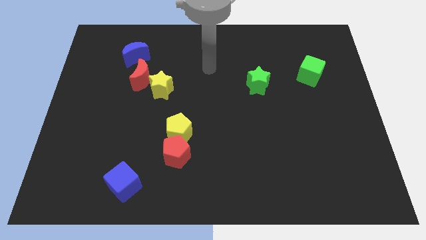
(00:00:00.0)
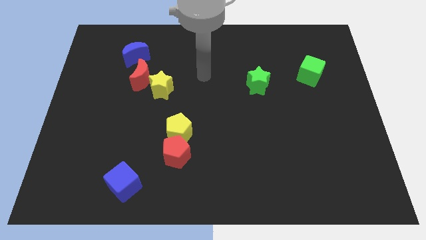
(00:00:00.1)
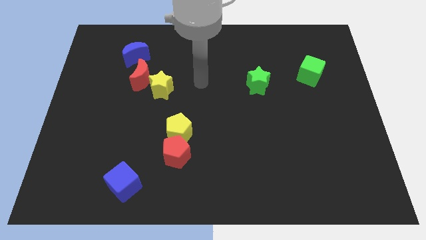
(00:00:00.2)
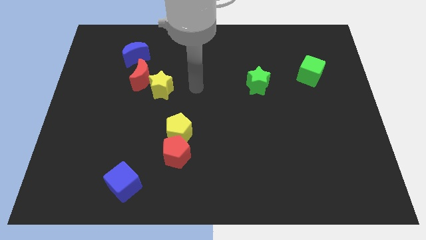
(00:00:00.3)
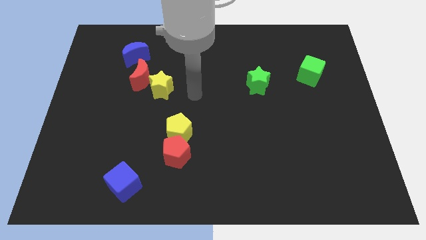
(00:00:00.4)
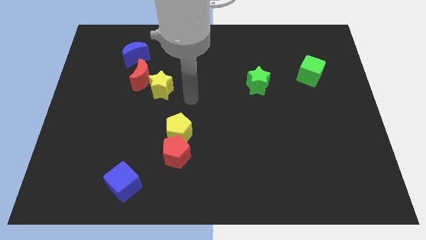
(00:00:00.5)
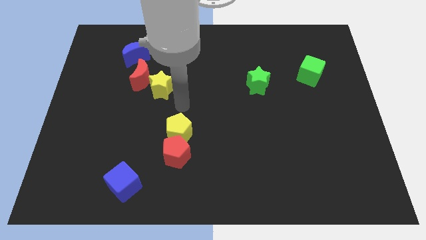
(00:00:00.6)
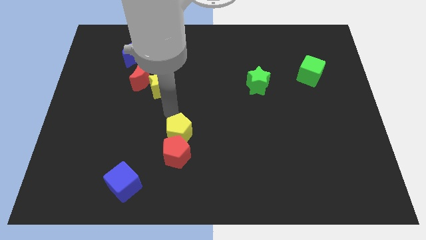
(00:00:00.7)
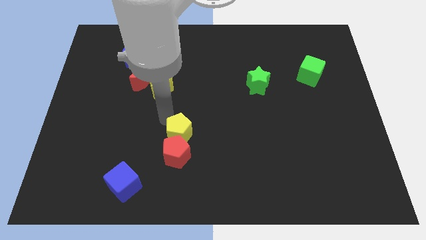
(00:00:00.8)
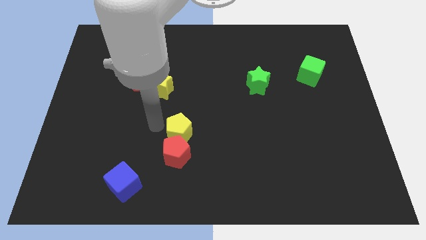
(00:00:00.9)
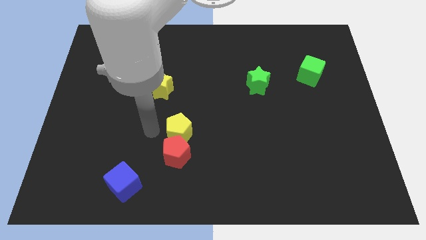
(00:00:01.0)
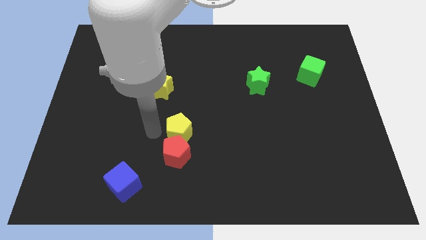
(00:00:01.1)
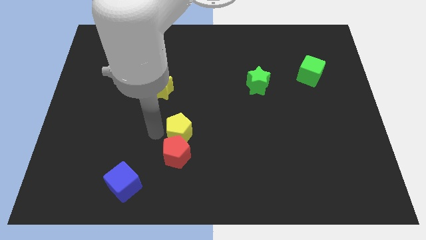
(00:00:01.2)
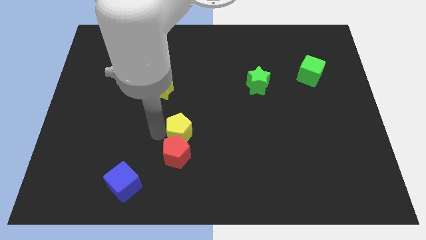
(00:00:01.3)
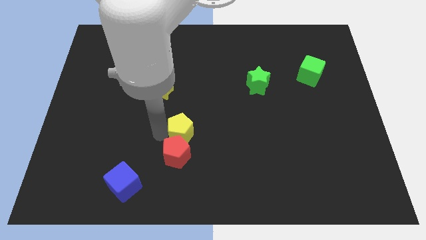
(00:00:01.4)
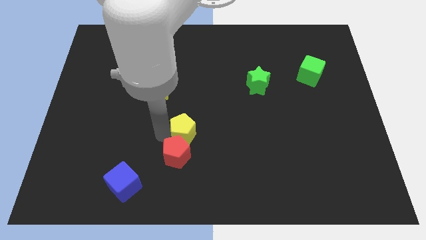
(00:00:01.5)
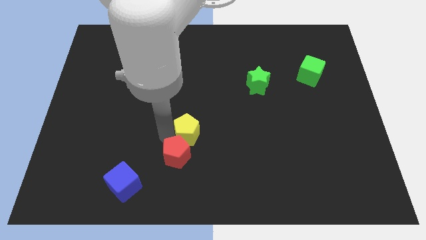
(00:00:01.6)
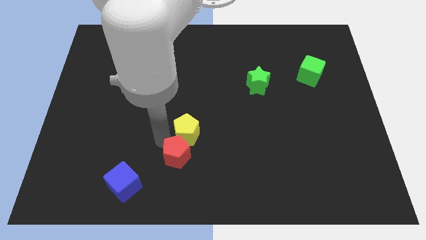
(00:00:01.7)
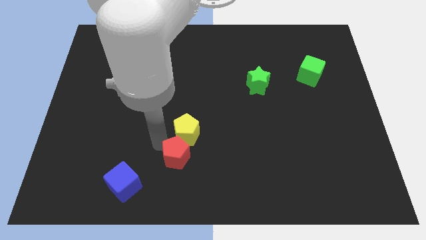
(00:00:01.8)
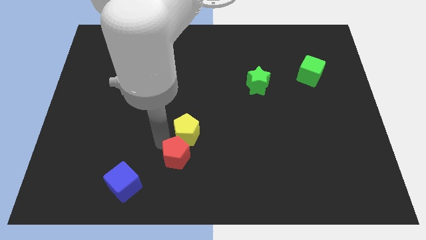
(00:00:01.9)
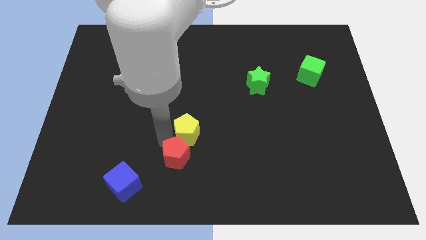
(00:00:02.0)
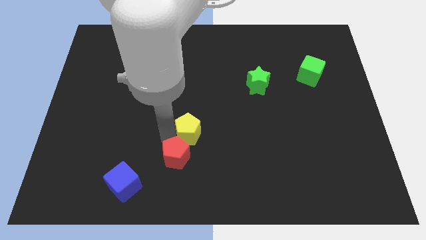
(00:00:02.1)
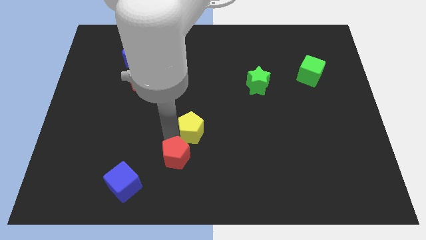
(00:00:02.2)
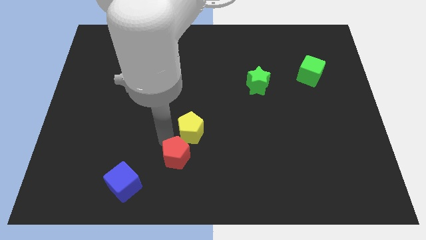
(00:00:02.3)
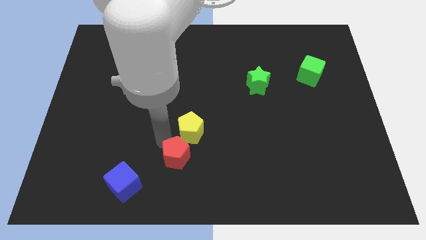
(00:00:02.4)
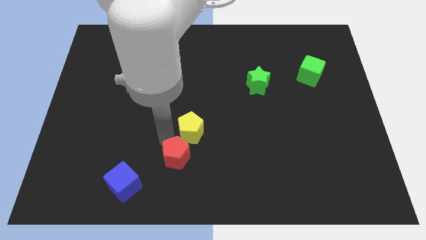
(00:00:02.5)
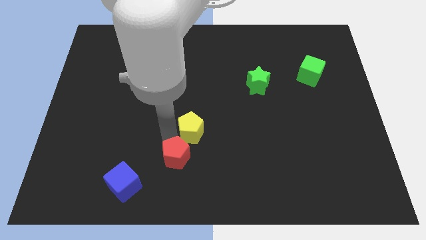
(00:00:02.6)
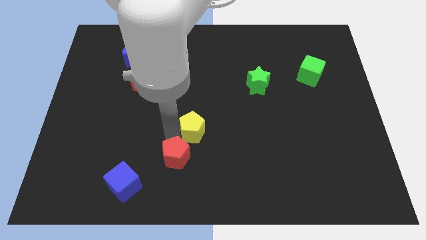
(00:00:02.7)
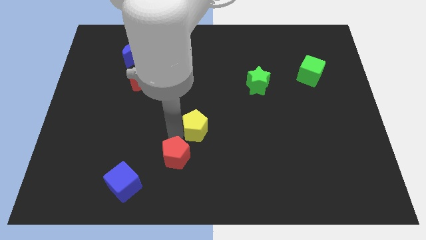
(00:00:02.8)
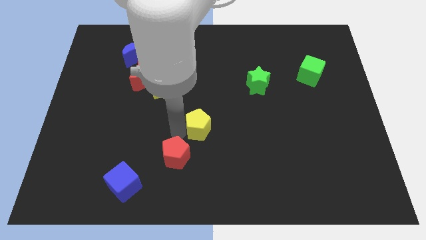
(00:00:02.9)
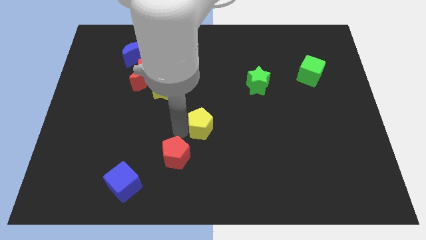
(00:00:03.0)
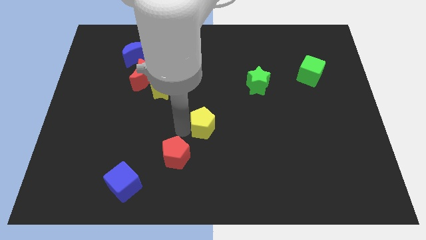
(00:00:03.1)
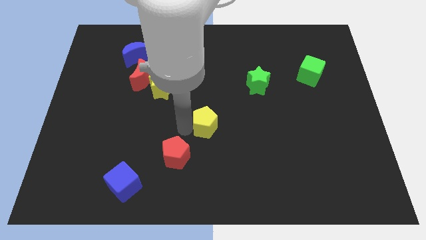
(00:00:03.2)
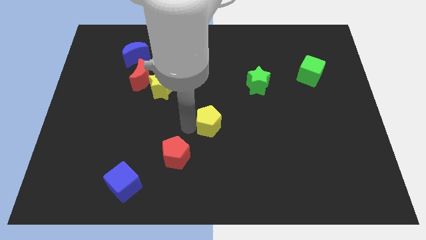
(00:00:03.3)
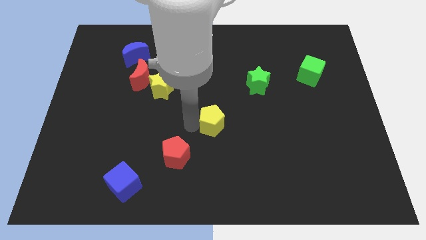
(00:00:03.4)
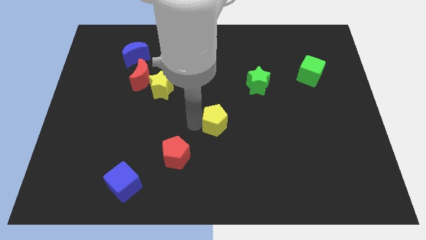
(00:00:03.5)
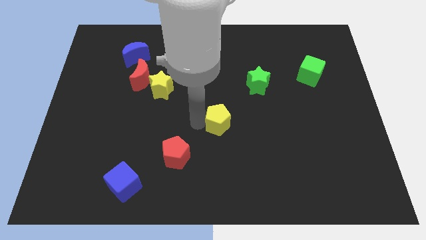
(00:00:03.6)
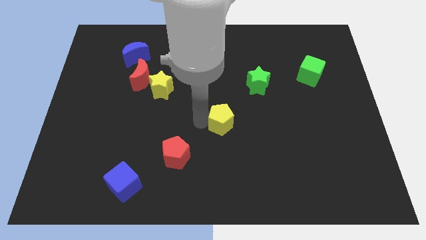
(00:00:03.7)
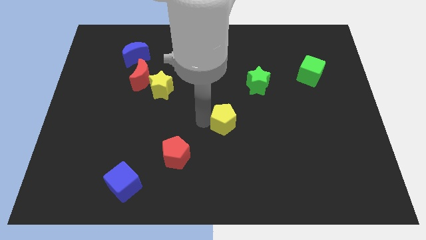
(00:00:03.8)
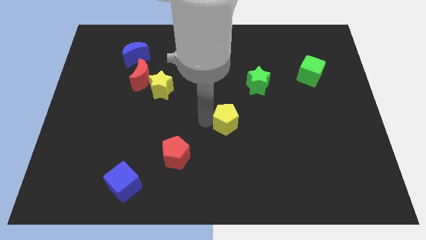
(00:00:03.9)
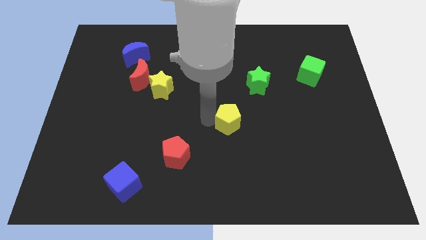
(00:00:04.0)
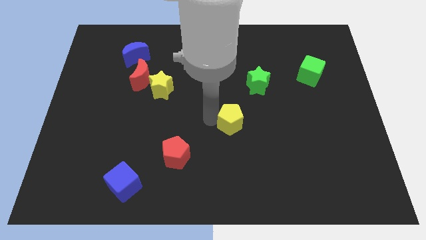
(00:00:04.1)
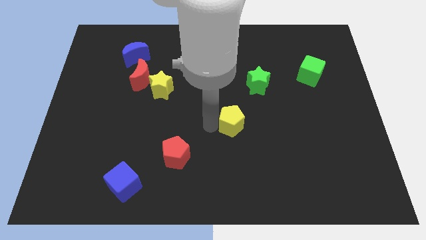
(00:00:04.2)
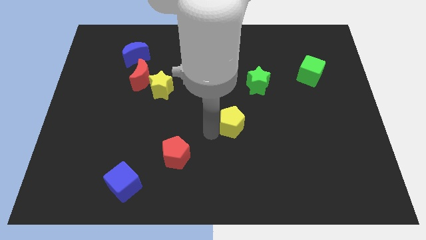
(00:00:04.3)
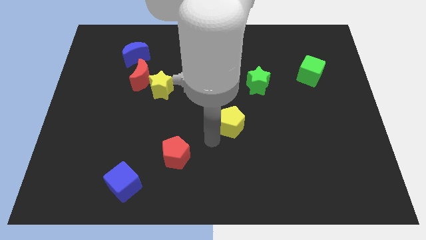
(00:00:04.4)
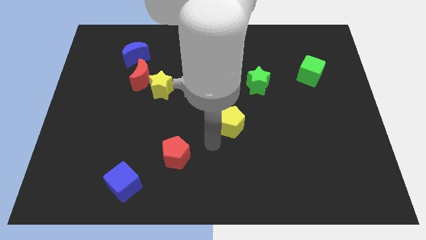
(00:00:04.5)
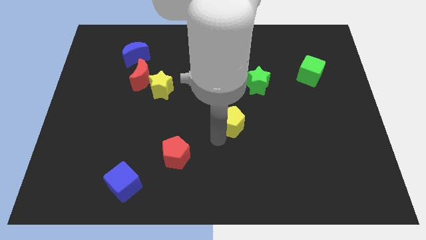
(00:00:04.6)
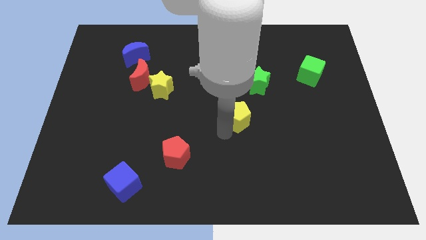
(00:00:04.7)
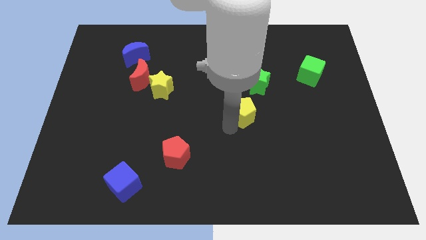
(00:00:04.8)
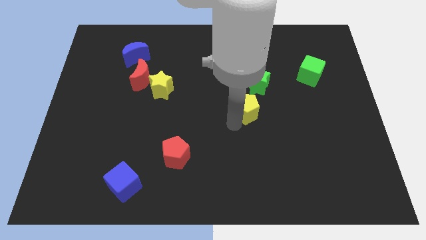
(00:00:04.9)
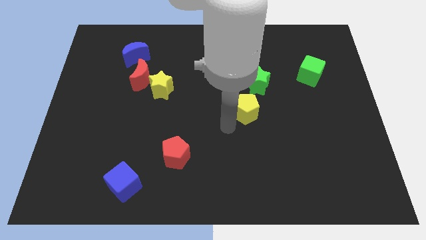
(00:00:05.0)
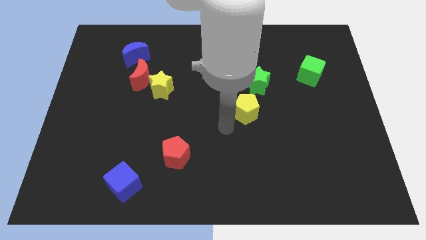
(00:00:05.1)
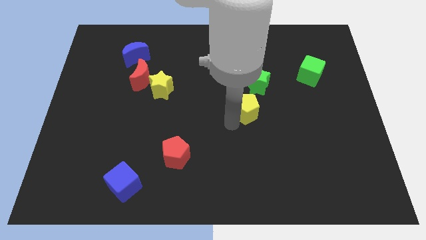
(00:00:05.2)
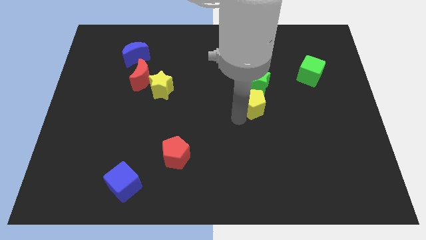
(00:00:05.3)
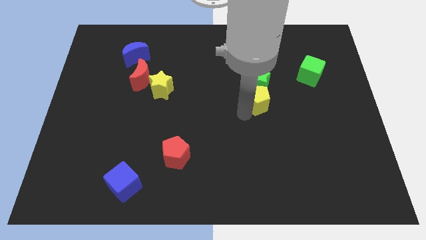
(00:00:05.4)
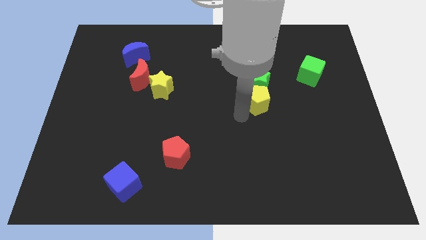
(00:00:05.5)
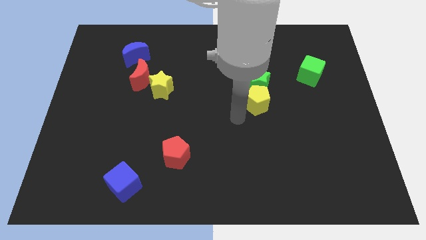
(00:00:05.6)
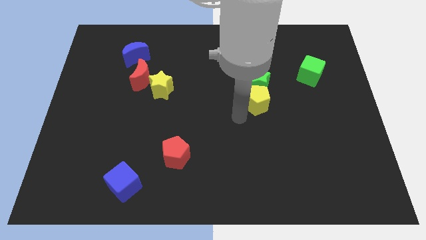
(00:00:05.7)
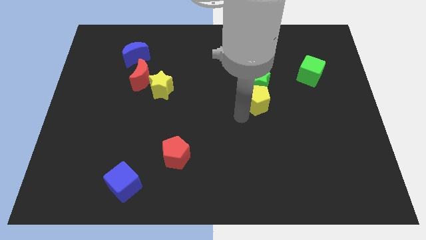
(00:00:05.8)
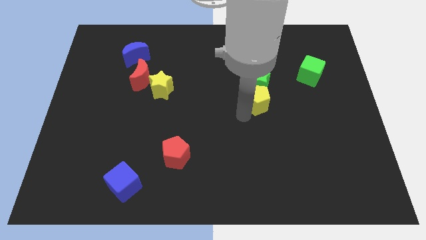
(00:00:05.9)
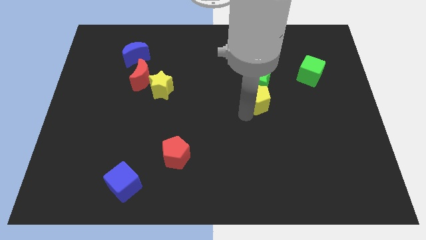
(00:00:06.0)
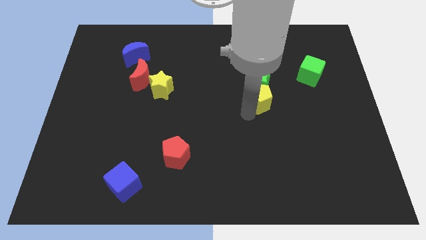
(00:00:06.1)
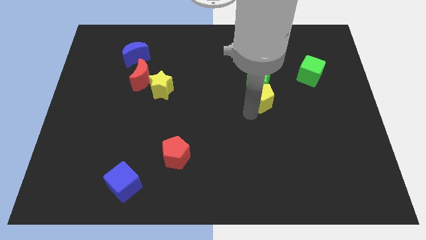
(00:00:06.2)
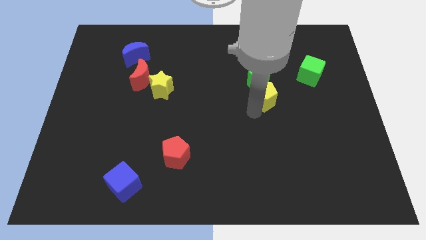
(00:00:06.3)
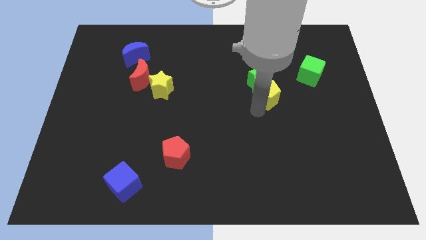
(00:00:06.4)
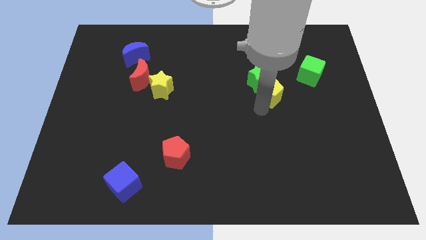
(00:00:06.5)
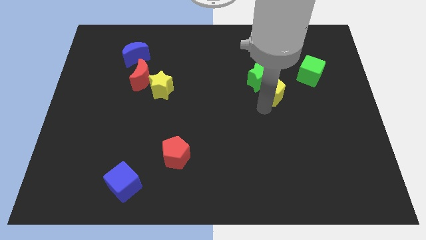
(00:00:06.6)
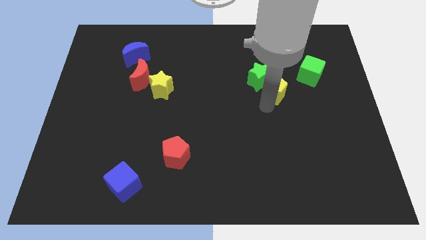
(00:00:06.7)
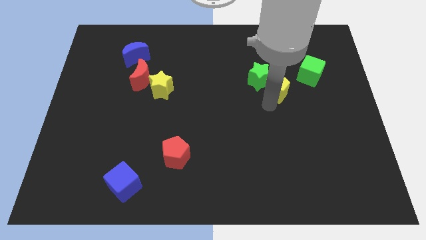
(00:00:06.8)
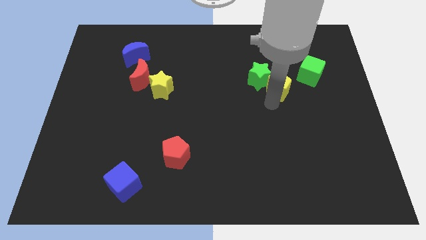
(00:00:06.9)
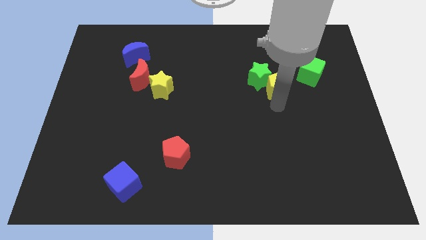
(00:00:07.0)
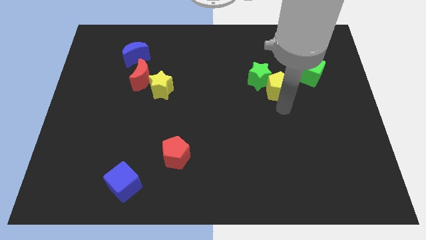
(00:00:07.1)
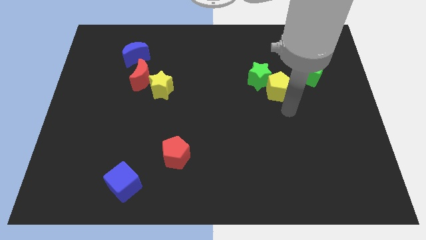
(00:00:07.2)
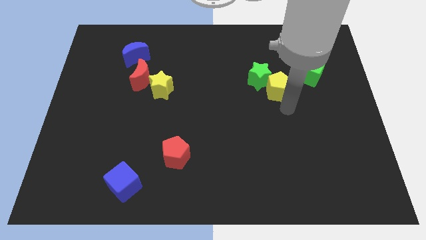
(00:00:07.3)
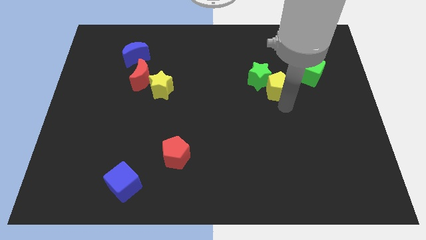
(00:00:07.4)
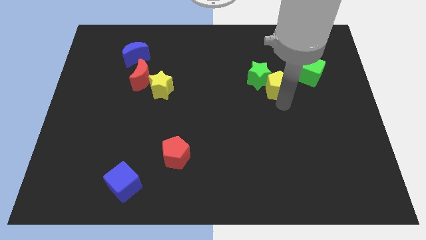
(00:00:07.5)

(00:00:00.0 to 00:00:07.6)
push the yellow pentagon left of the green cube
